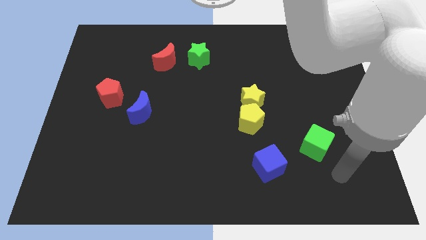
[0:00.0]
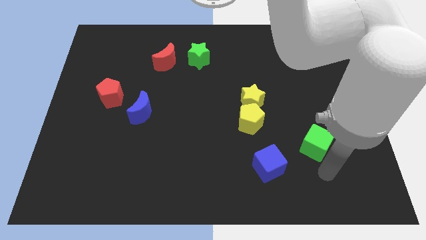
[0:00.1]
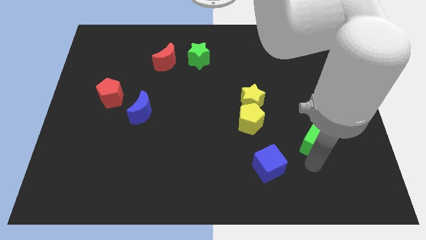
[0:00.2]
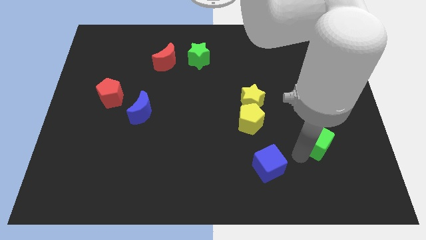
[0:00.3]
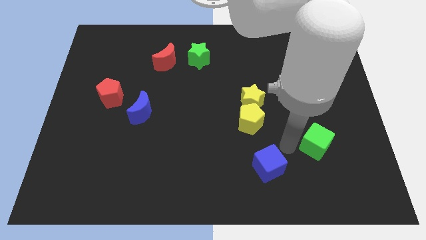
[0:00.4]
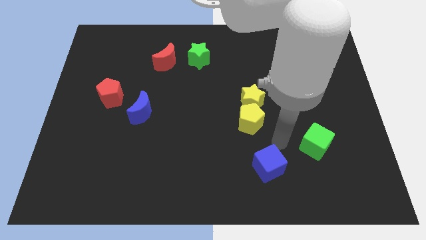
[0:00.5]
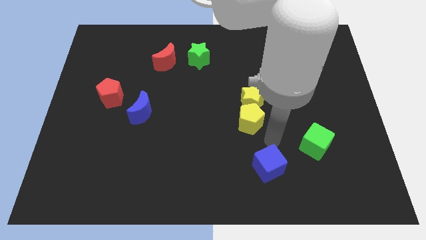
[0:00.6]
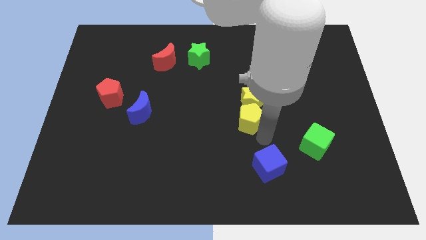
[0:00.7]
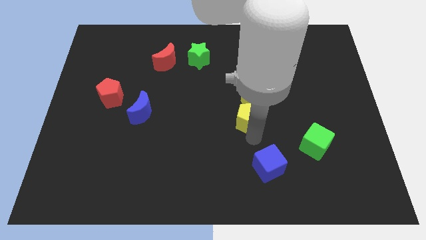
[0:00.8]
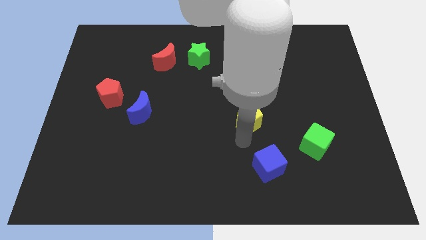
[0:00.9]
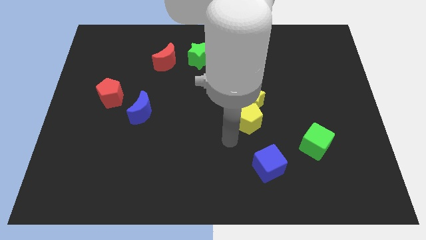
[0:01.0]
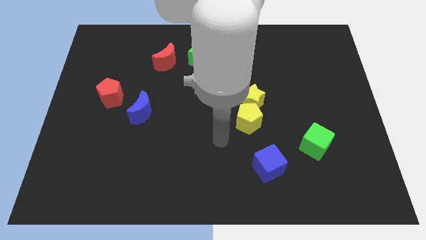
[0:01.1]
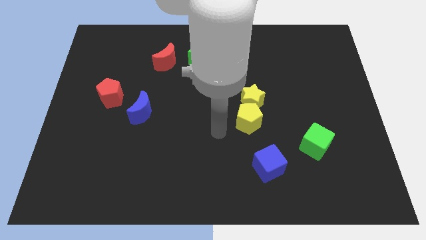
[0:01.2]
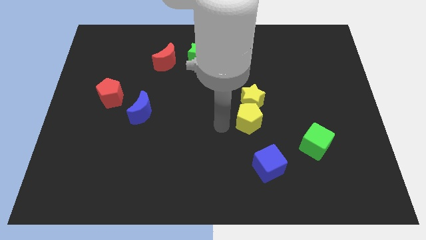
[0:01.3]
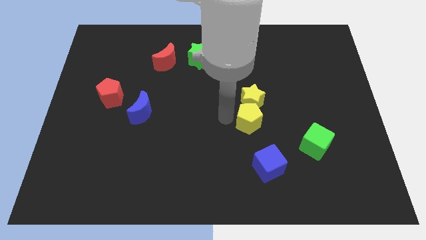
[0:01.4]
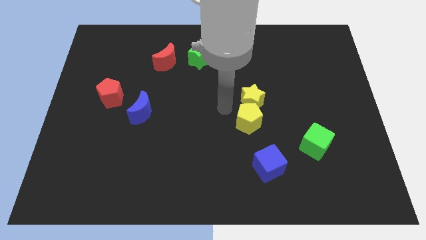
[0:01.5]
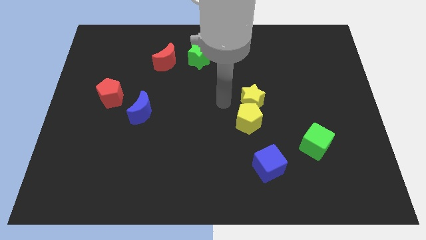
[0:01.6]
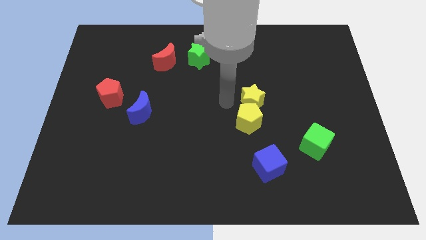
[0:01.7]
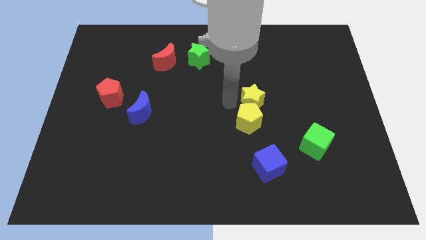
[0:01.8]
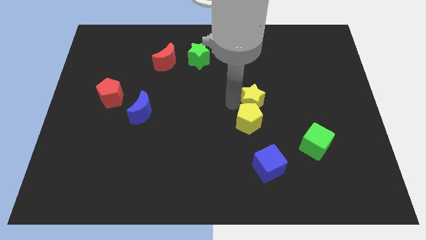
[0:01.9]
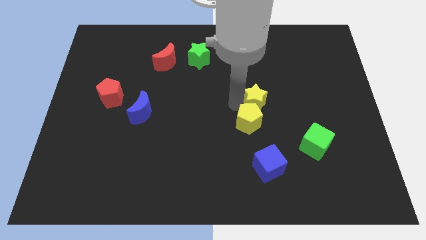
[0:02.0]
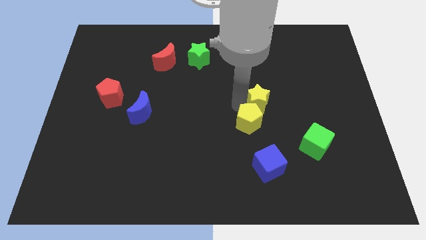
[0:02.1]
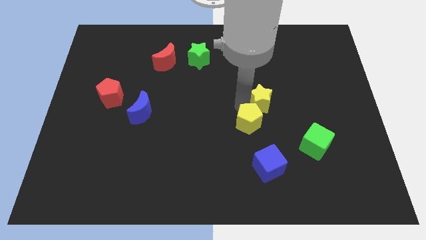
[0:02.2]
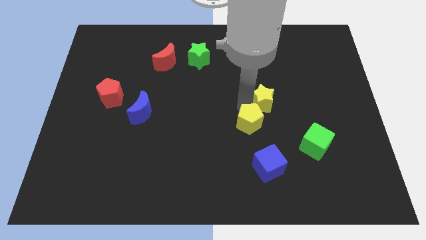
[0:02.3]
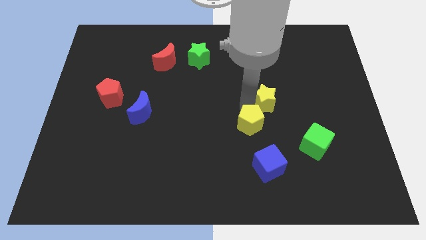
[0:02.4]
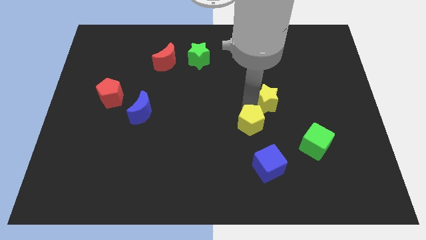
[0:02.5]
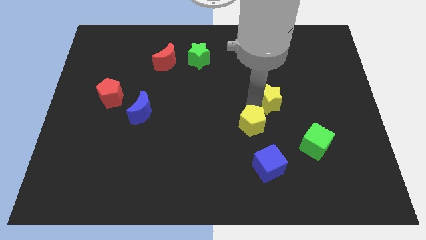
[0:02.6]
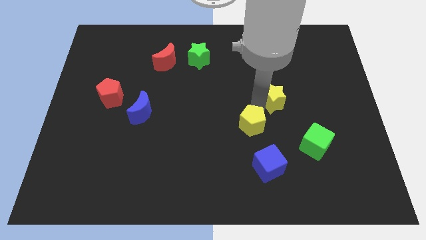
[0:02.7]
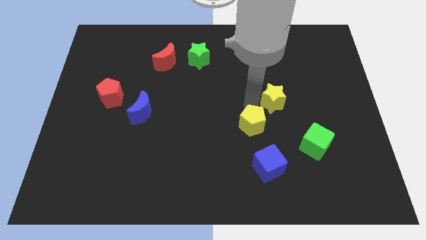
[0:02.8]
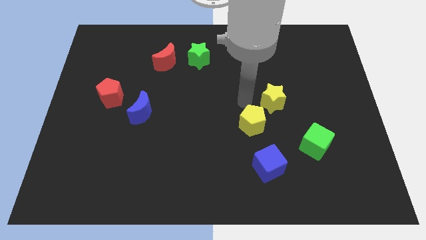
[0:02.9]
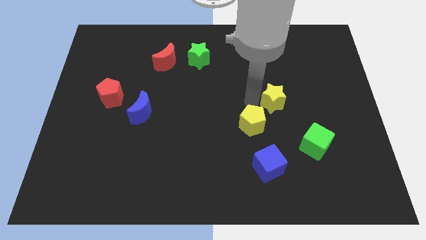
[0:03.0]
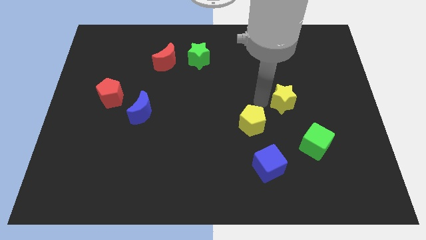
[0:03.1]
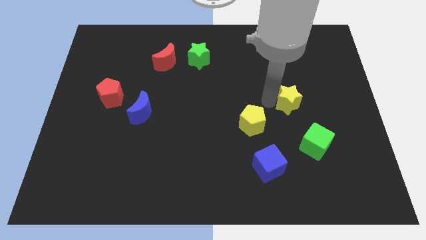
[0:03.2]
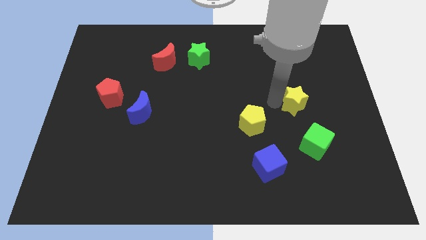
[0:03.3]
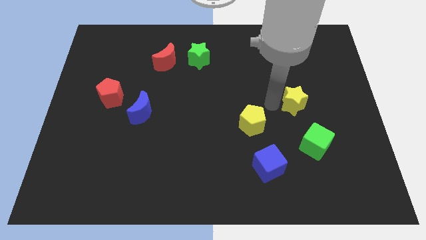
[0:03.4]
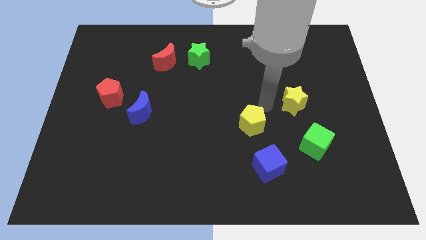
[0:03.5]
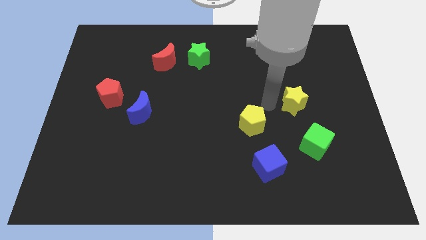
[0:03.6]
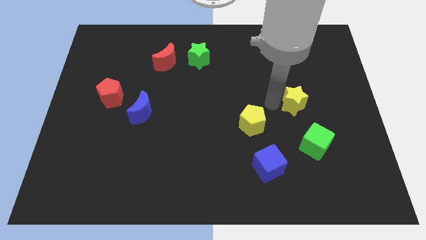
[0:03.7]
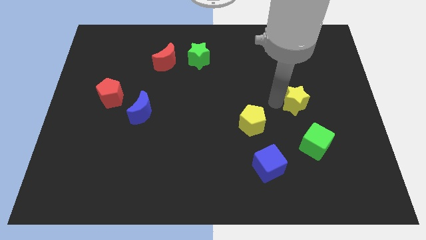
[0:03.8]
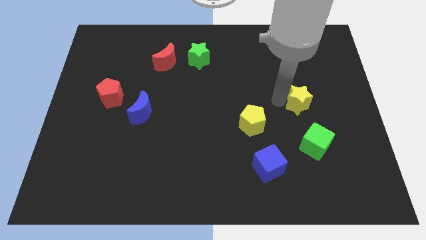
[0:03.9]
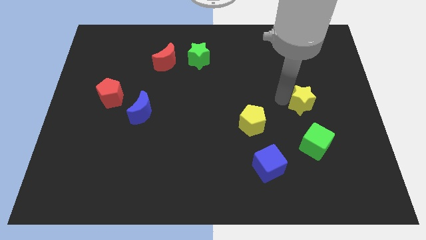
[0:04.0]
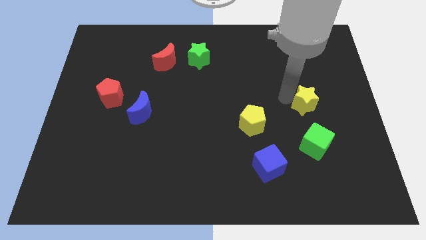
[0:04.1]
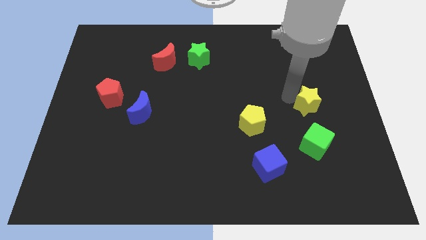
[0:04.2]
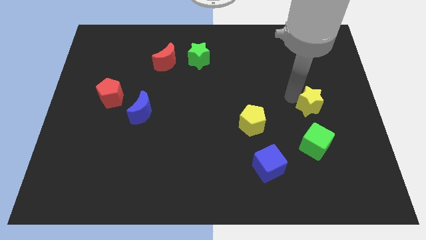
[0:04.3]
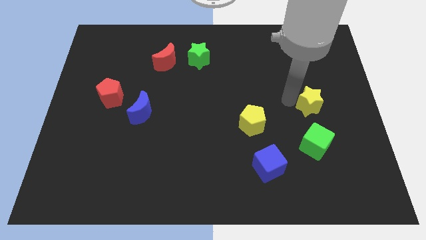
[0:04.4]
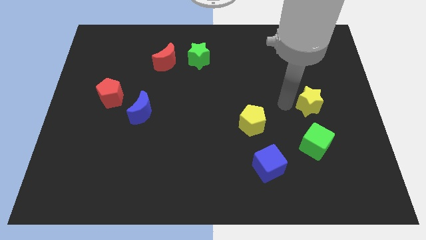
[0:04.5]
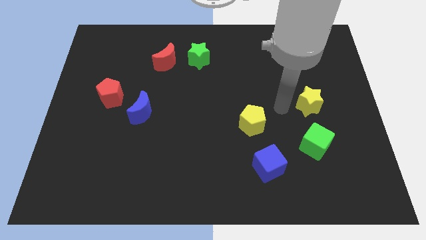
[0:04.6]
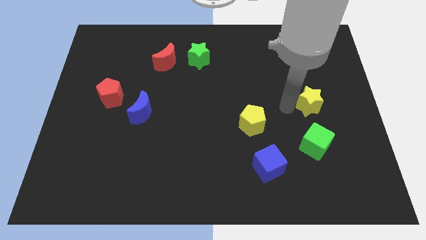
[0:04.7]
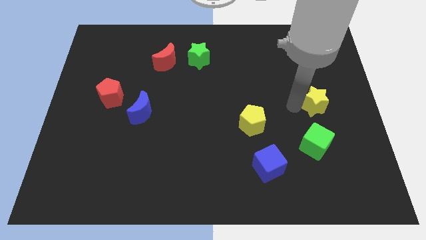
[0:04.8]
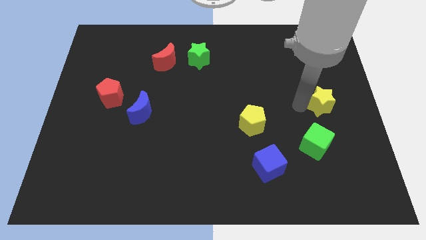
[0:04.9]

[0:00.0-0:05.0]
move the yellow star to the right side of the board

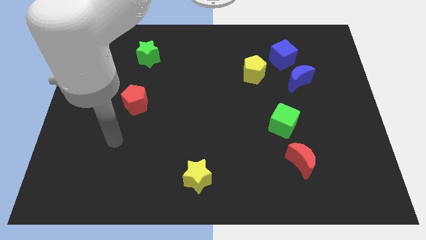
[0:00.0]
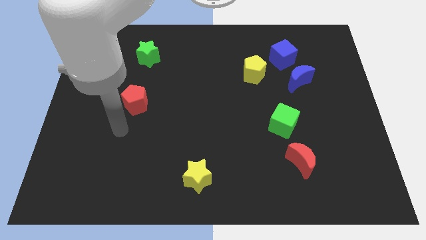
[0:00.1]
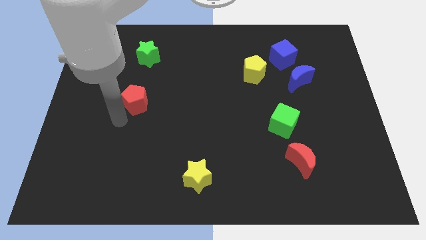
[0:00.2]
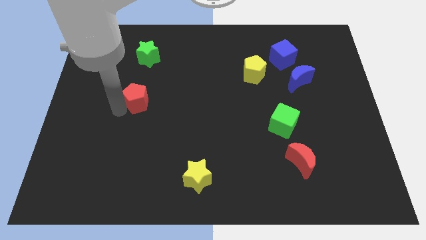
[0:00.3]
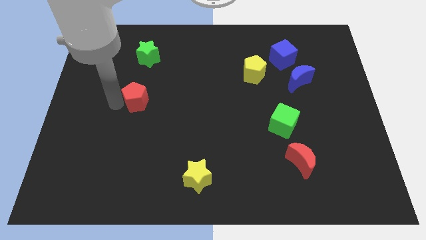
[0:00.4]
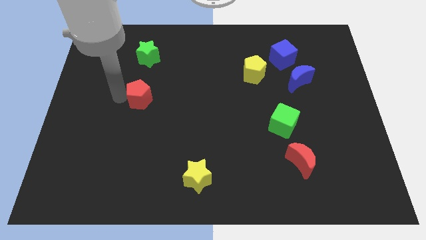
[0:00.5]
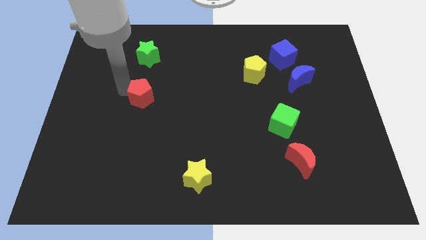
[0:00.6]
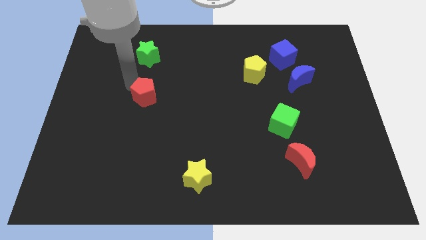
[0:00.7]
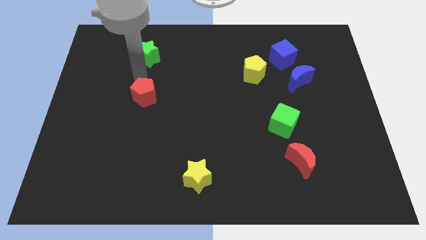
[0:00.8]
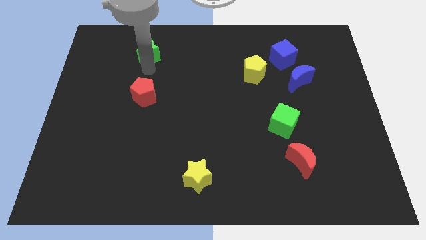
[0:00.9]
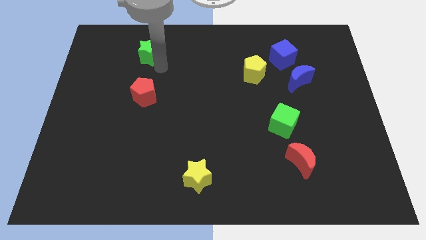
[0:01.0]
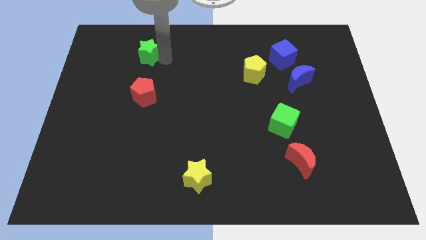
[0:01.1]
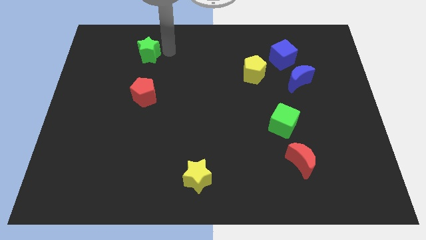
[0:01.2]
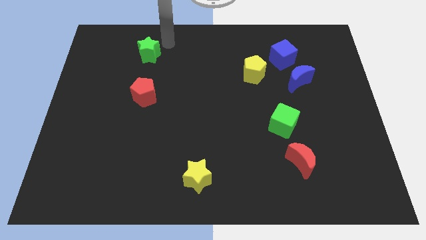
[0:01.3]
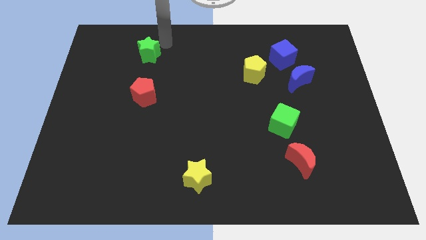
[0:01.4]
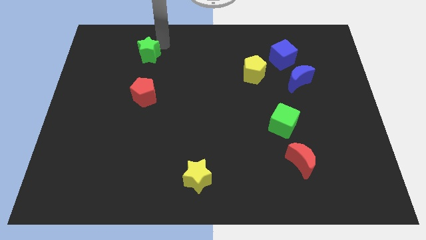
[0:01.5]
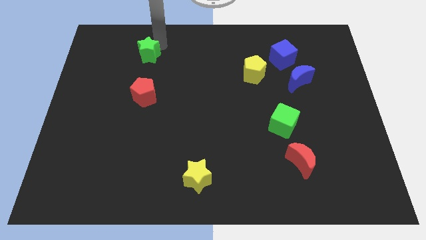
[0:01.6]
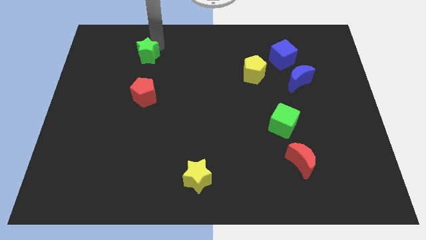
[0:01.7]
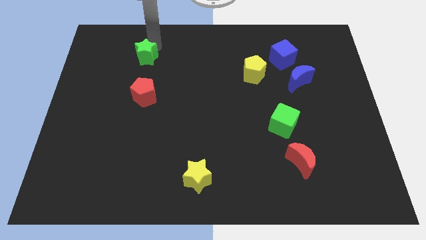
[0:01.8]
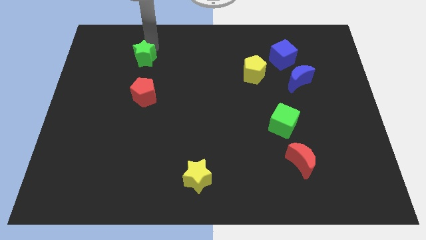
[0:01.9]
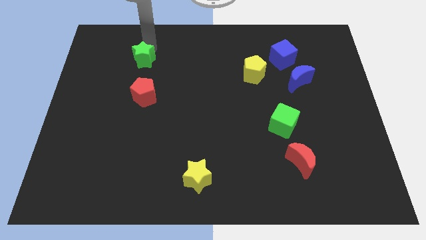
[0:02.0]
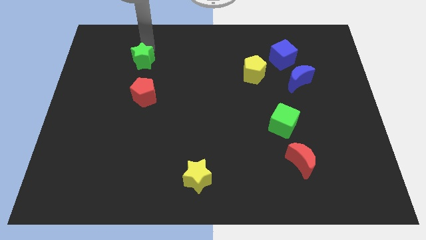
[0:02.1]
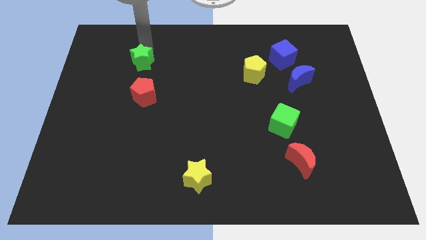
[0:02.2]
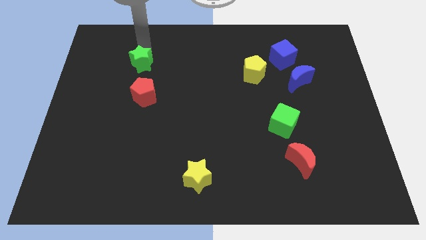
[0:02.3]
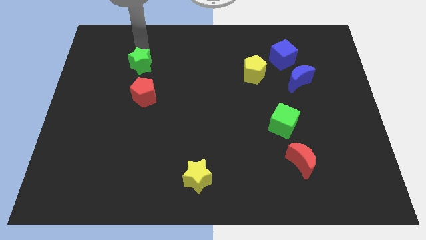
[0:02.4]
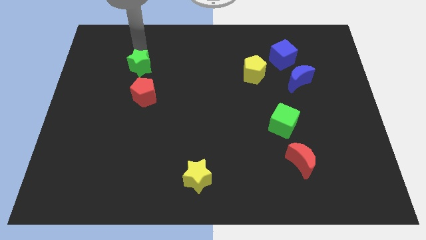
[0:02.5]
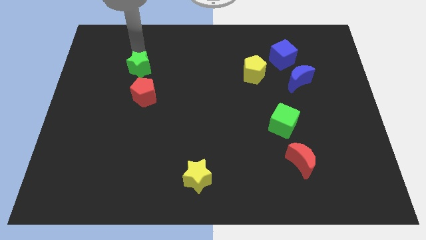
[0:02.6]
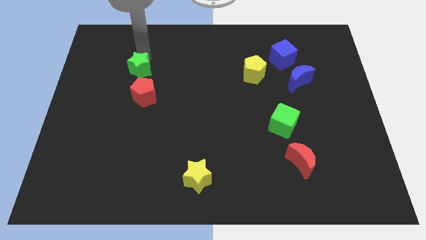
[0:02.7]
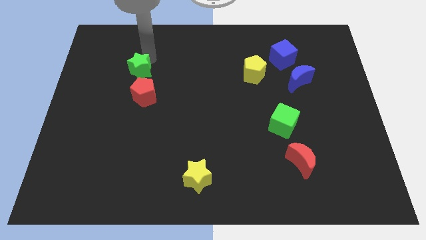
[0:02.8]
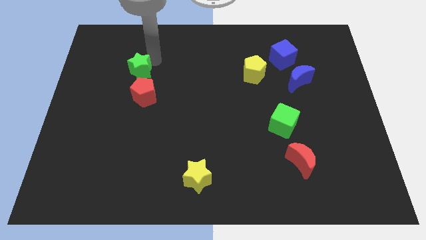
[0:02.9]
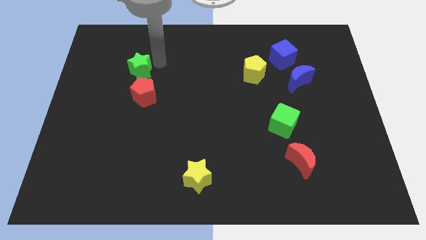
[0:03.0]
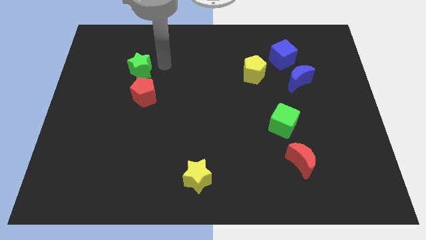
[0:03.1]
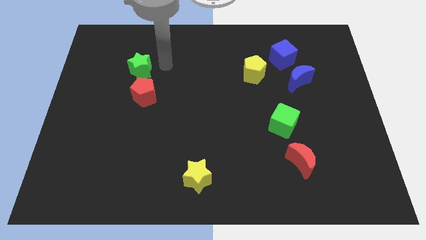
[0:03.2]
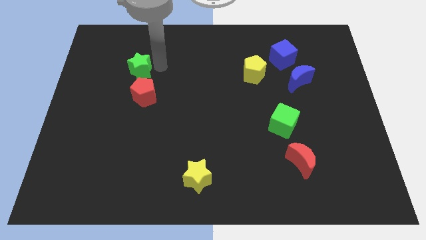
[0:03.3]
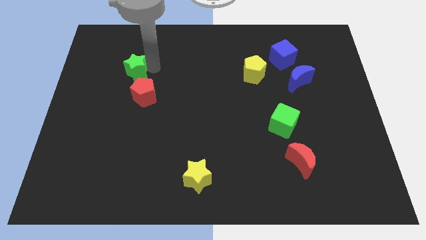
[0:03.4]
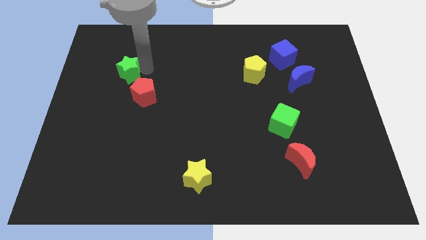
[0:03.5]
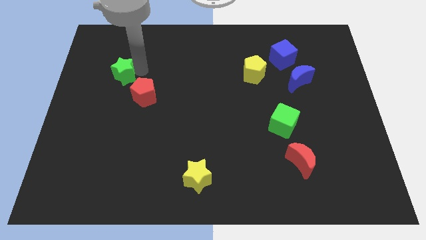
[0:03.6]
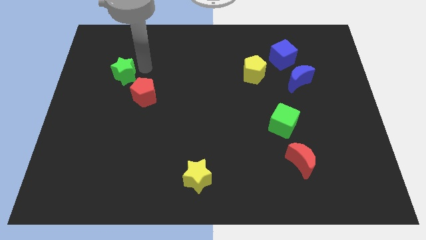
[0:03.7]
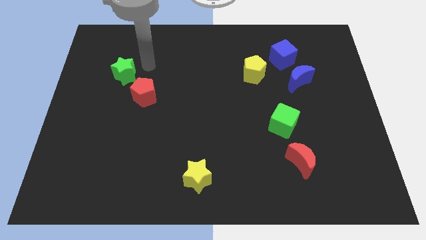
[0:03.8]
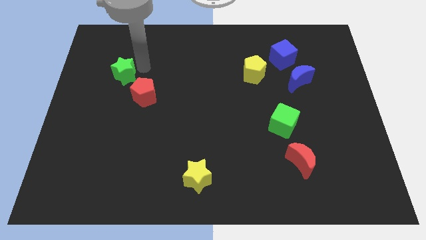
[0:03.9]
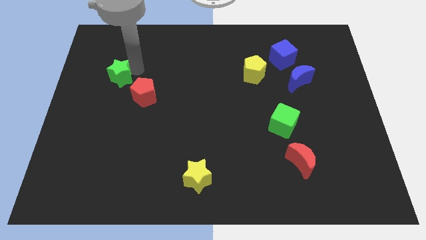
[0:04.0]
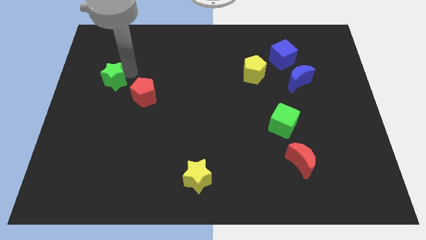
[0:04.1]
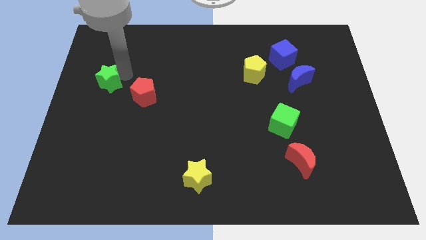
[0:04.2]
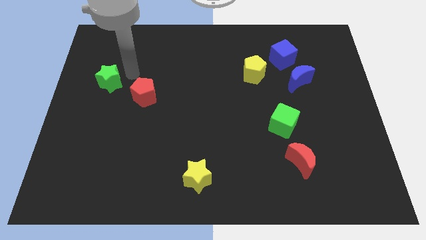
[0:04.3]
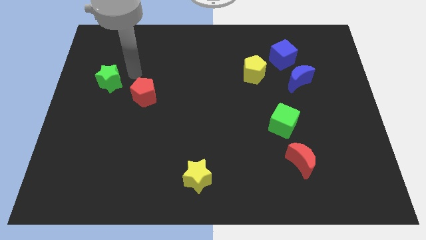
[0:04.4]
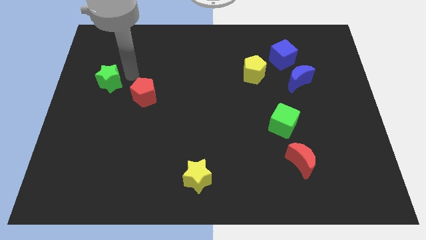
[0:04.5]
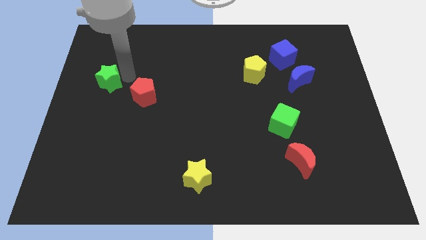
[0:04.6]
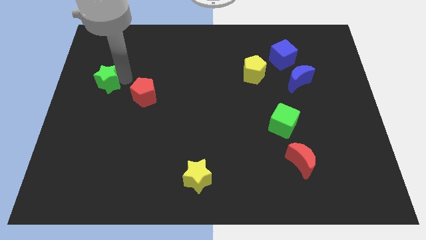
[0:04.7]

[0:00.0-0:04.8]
move the green star to the left side
